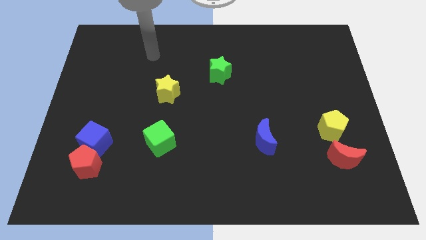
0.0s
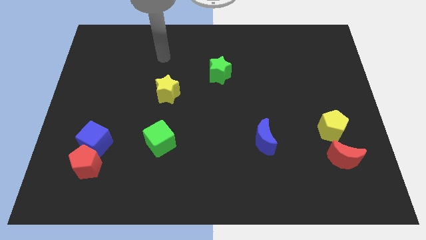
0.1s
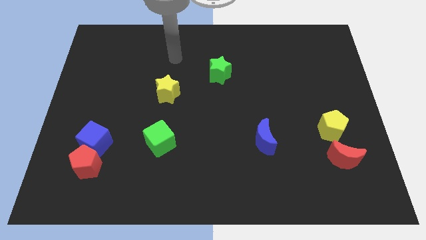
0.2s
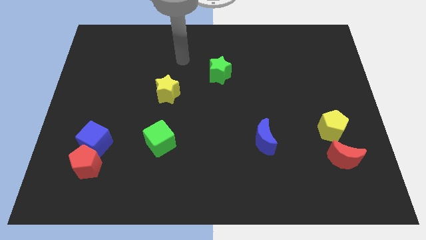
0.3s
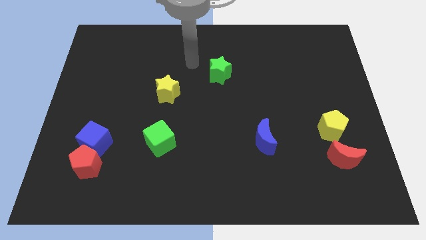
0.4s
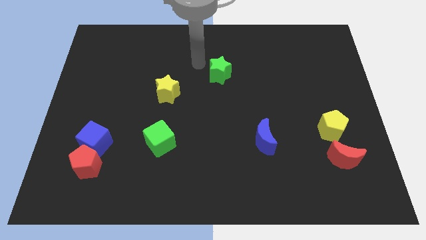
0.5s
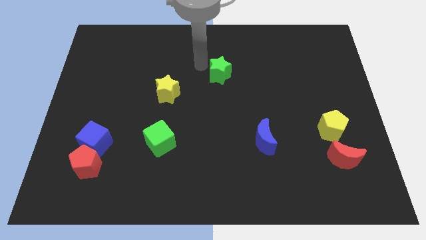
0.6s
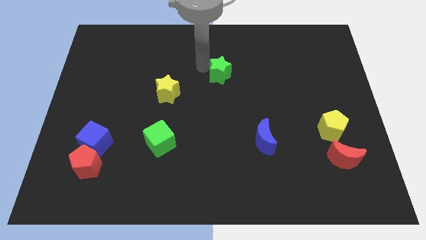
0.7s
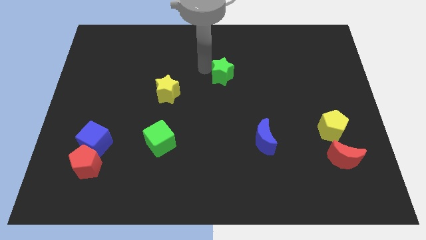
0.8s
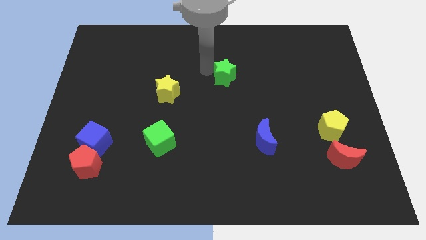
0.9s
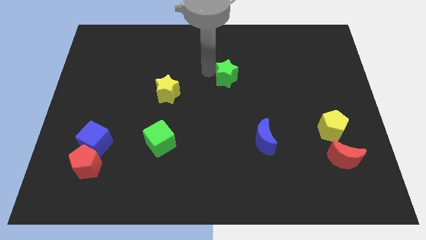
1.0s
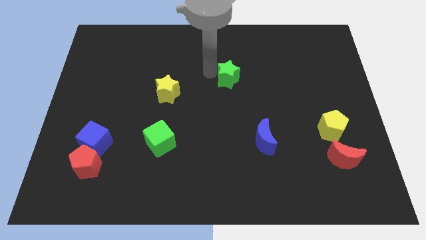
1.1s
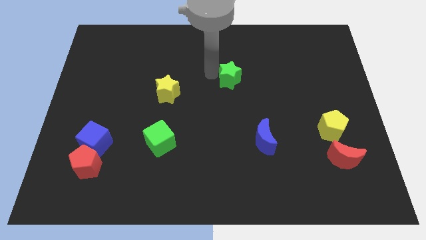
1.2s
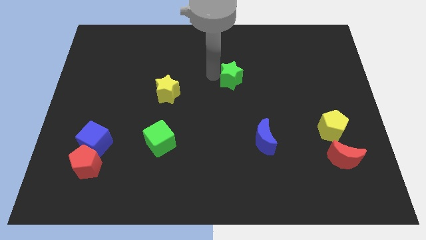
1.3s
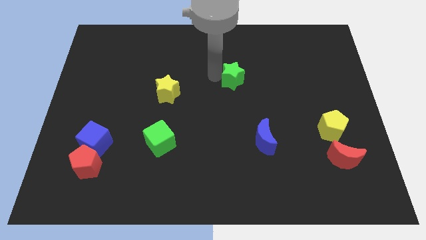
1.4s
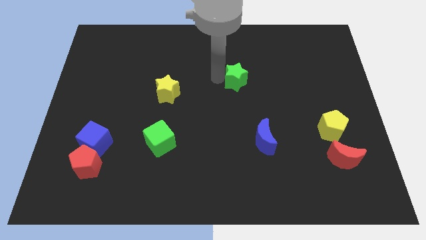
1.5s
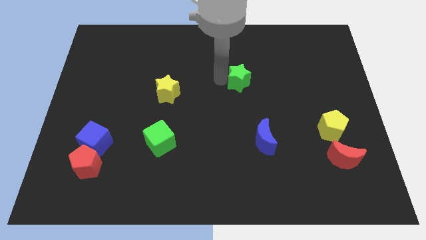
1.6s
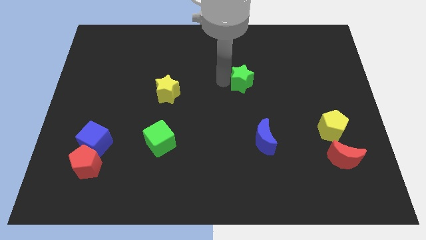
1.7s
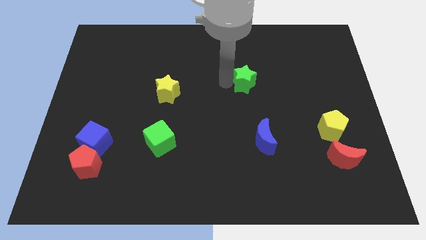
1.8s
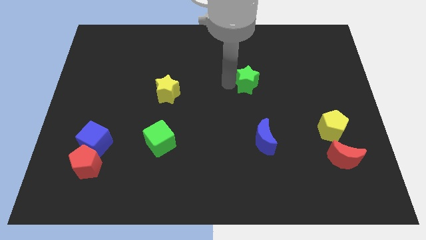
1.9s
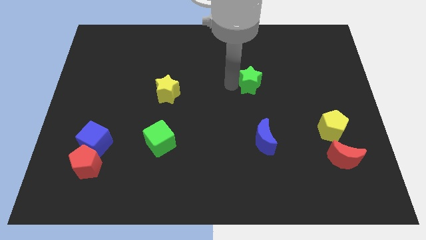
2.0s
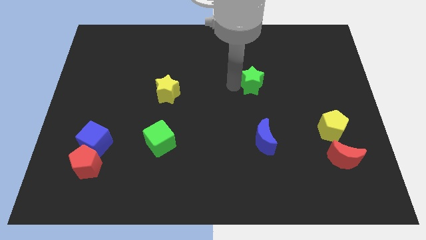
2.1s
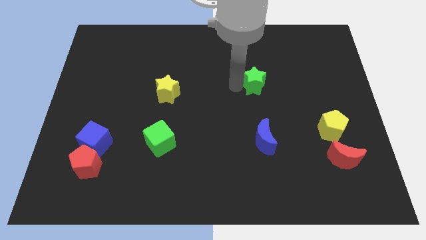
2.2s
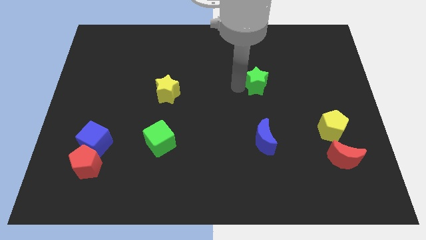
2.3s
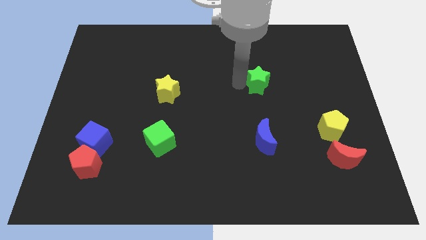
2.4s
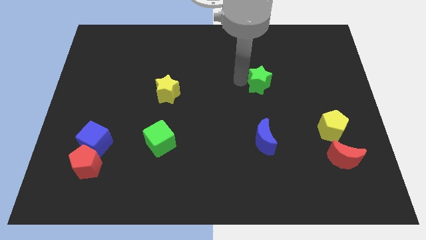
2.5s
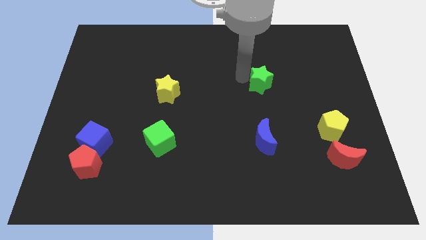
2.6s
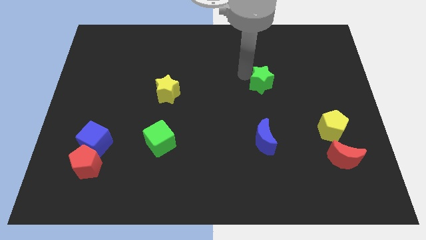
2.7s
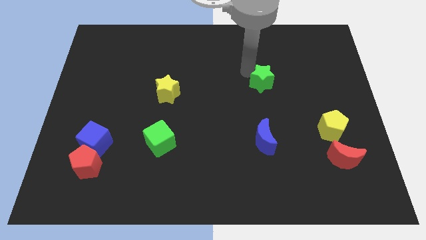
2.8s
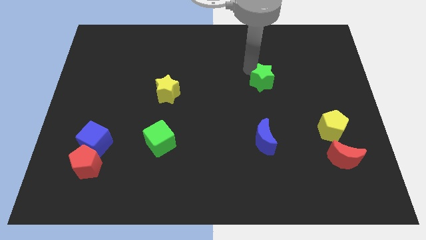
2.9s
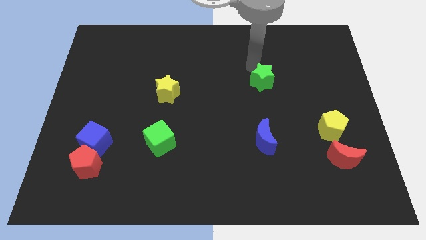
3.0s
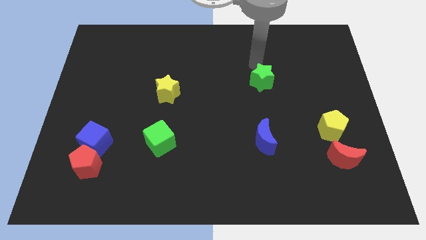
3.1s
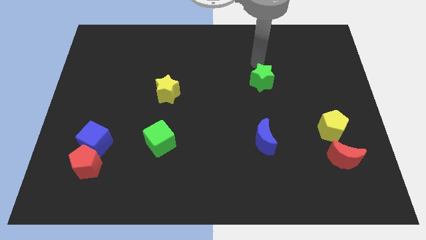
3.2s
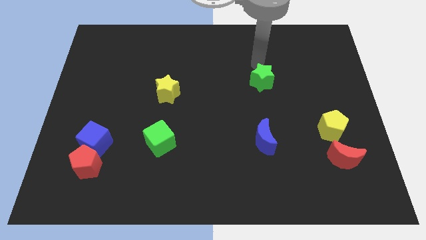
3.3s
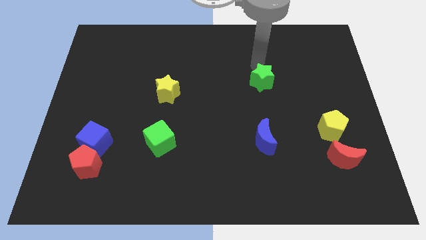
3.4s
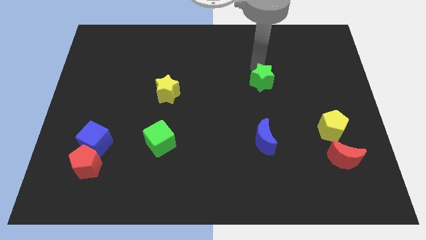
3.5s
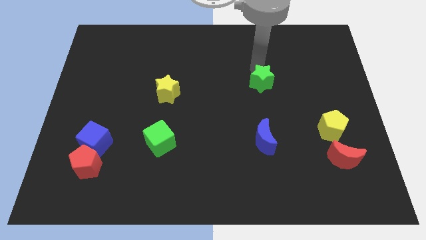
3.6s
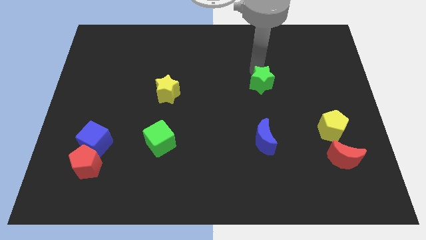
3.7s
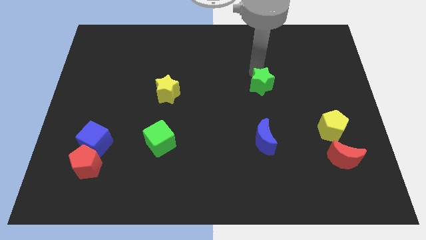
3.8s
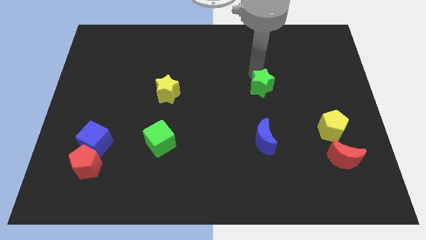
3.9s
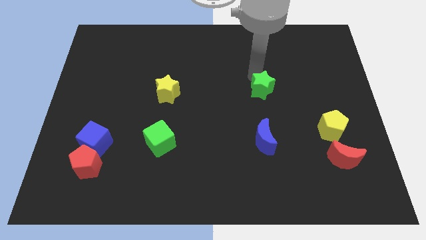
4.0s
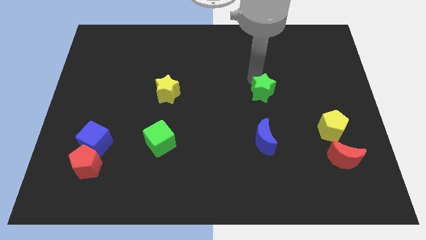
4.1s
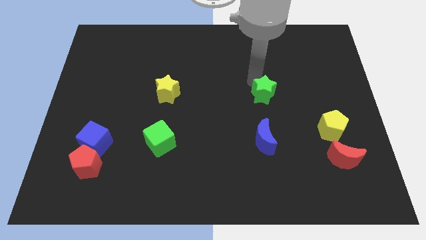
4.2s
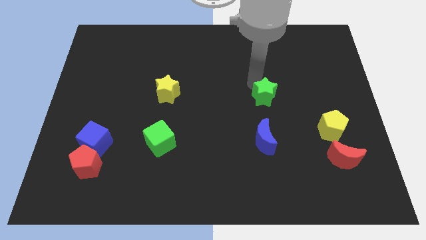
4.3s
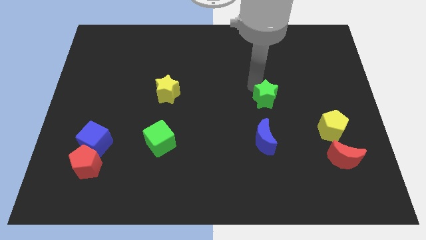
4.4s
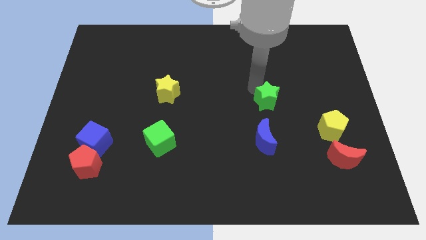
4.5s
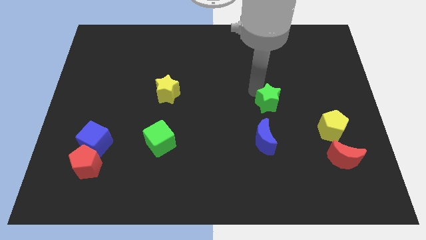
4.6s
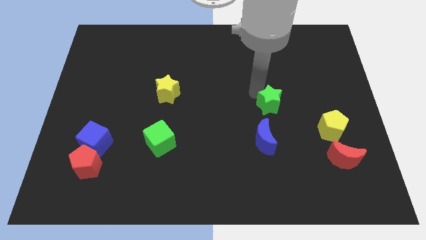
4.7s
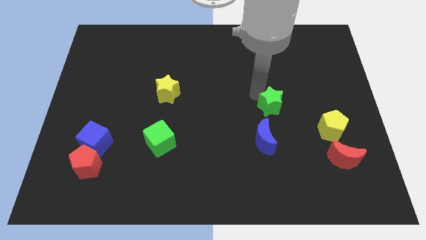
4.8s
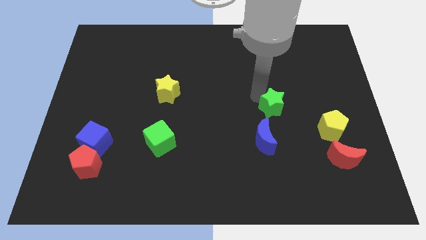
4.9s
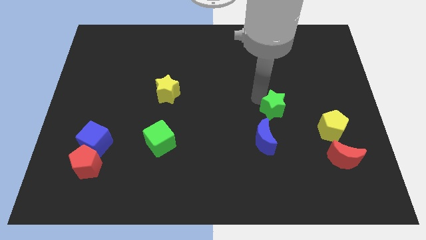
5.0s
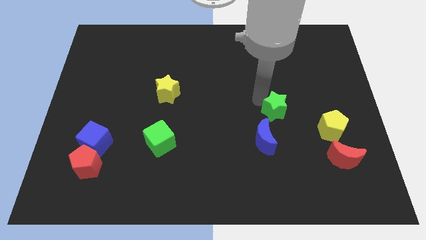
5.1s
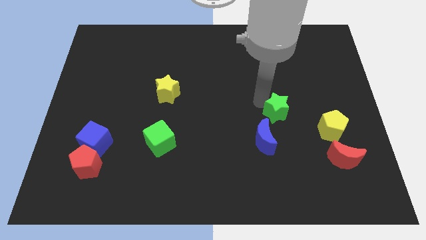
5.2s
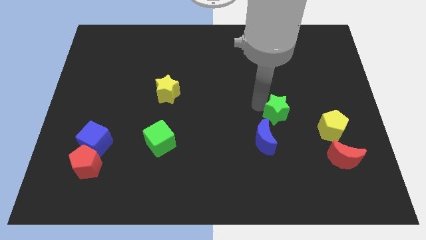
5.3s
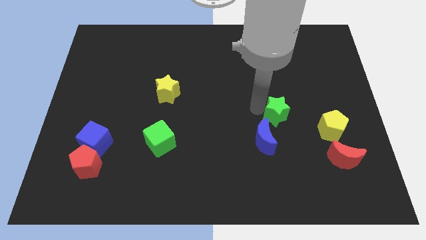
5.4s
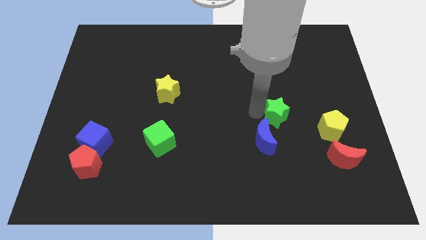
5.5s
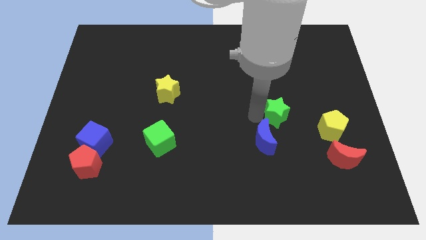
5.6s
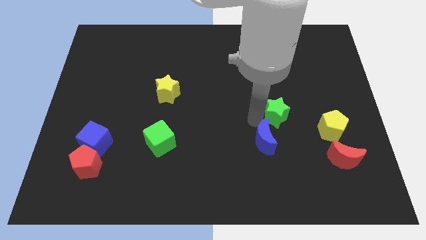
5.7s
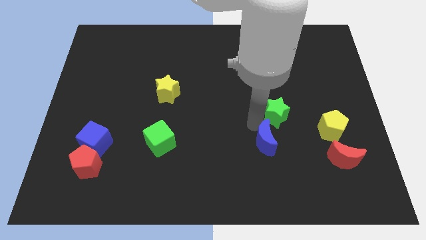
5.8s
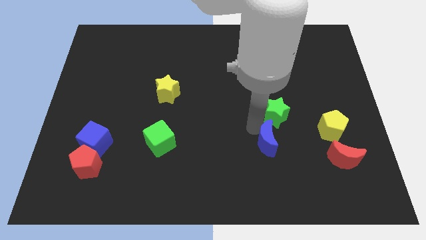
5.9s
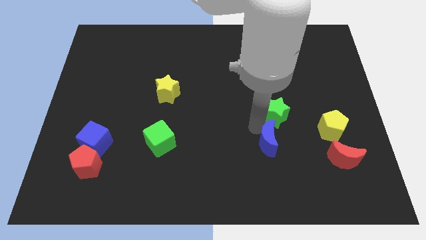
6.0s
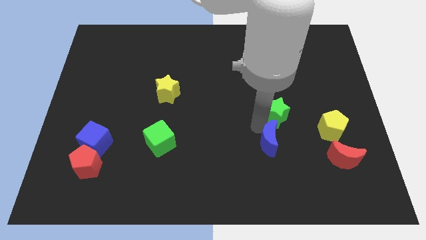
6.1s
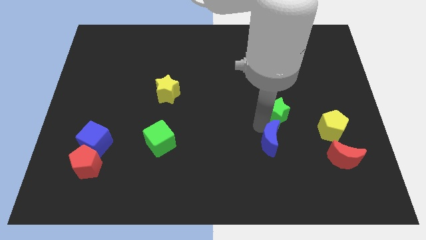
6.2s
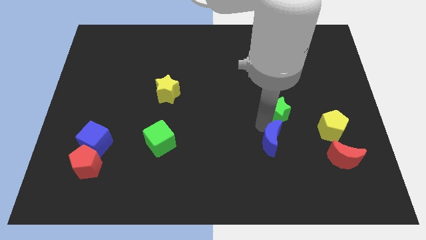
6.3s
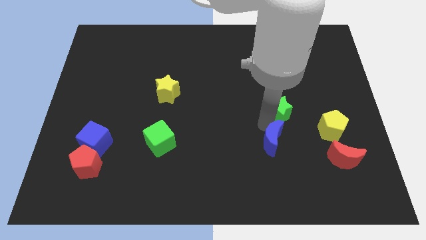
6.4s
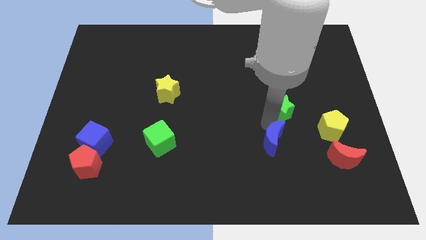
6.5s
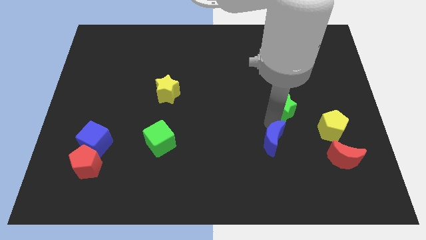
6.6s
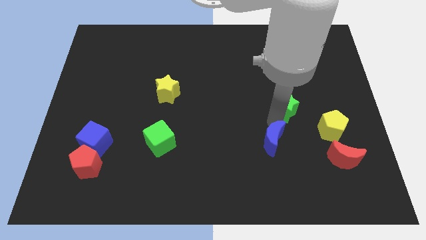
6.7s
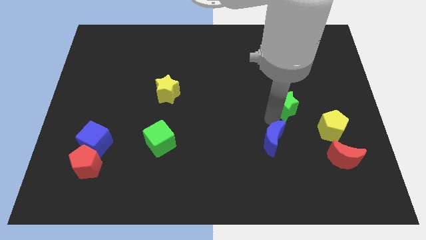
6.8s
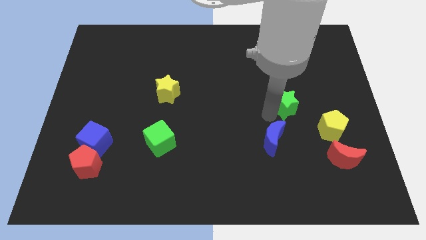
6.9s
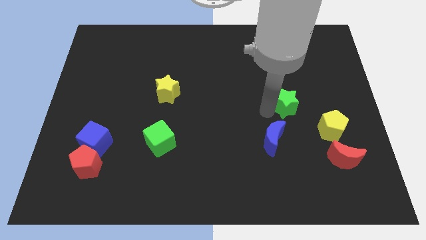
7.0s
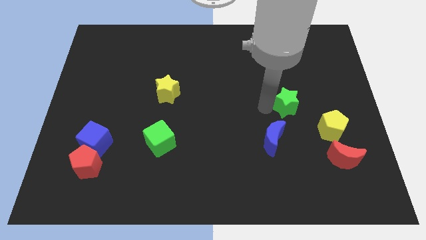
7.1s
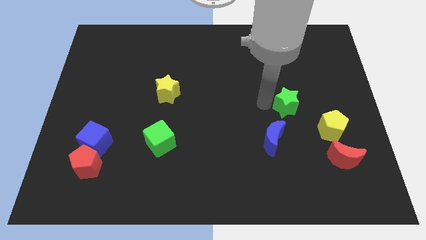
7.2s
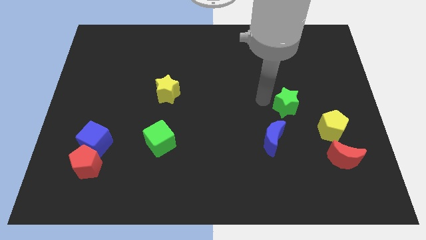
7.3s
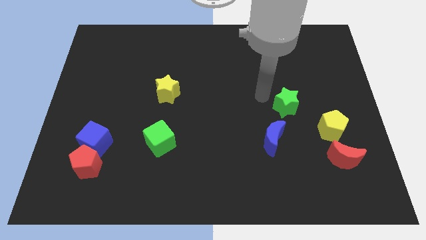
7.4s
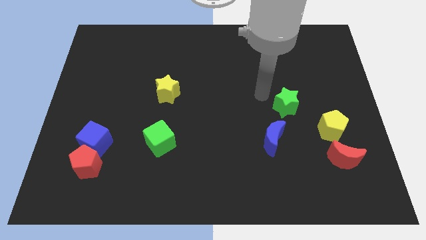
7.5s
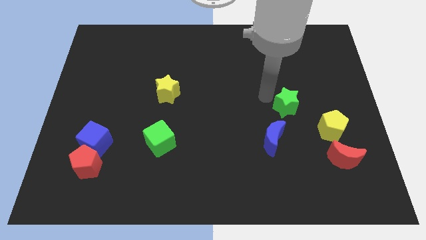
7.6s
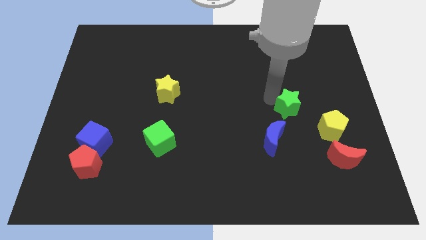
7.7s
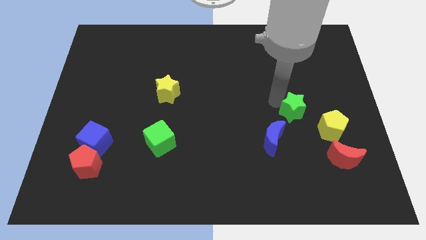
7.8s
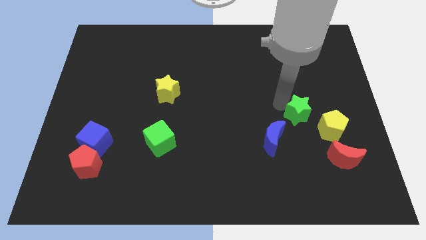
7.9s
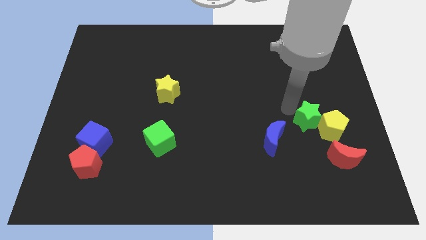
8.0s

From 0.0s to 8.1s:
move the green star next to the yellow pentagon
